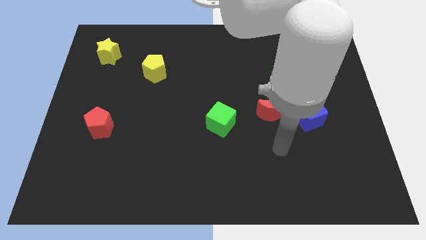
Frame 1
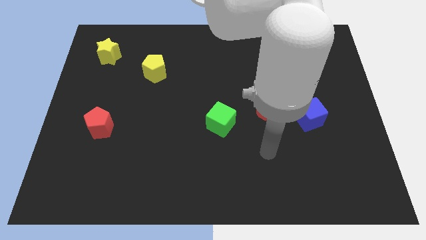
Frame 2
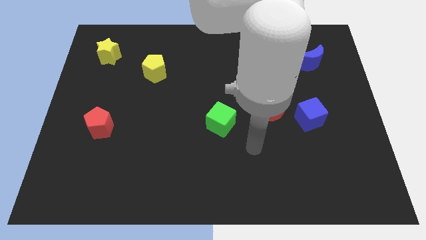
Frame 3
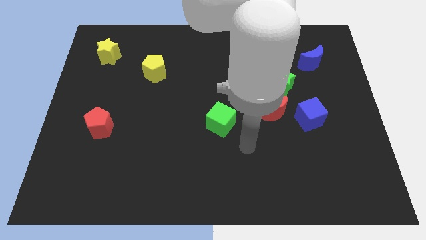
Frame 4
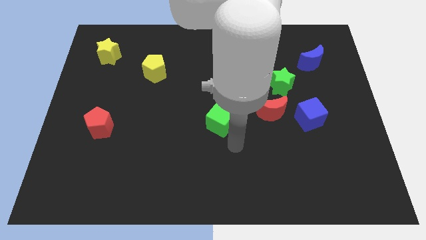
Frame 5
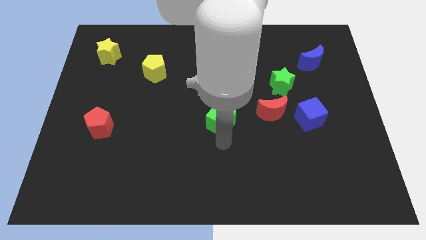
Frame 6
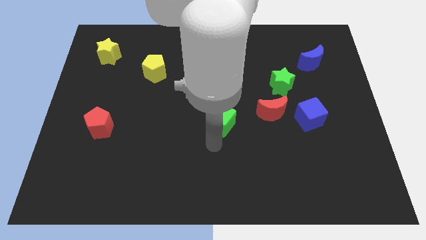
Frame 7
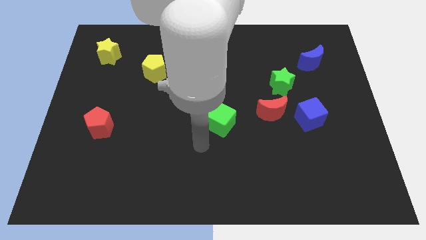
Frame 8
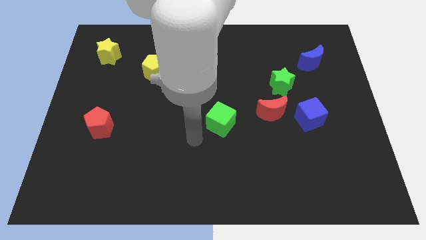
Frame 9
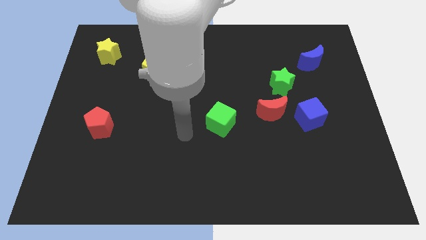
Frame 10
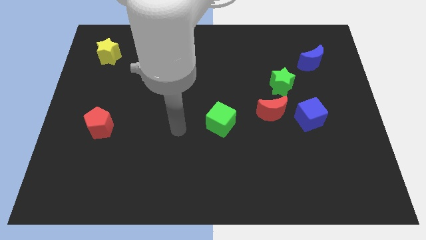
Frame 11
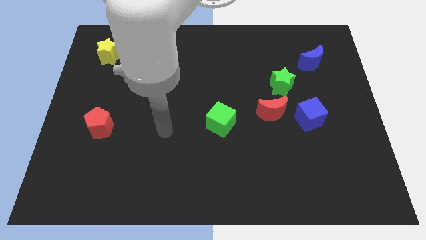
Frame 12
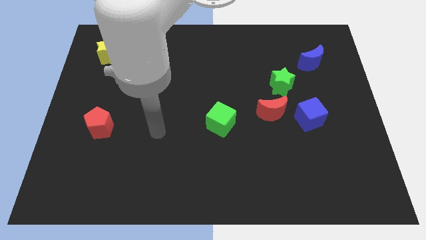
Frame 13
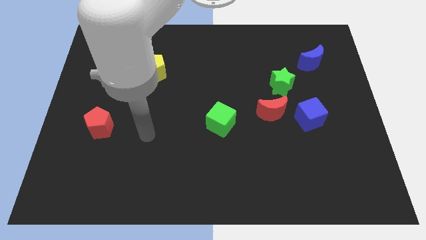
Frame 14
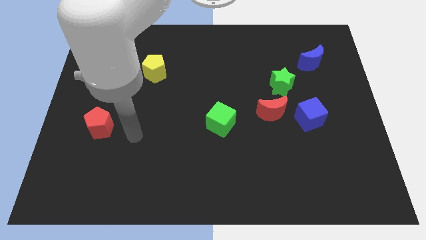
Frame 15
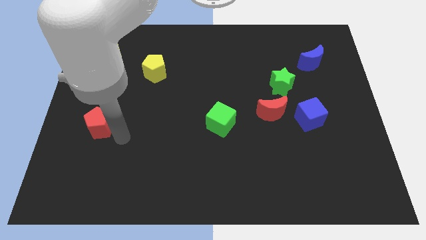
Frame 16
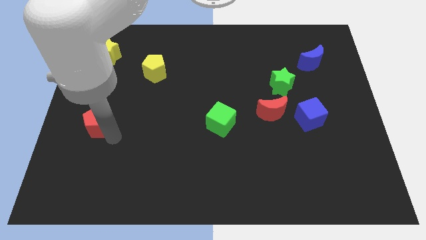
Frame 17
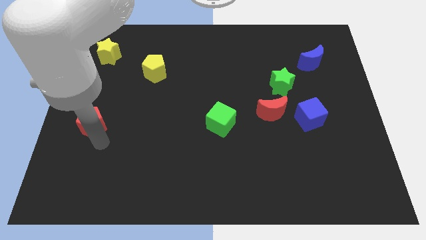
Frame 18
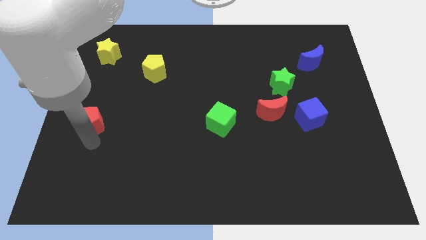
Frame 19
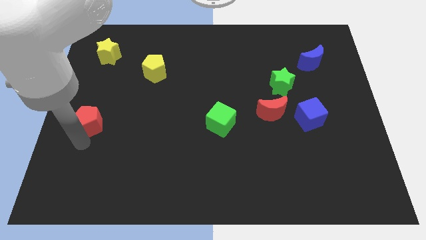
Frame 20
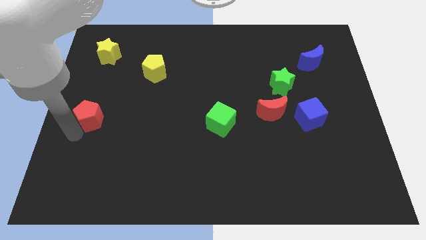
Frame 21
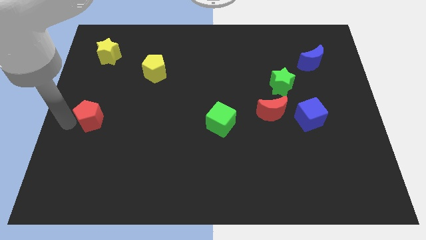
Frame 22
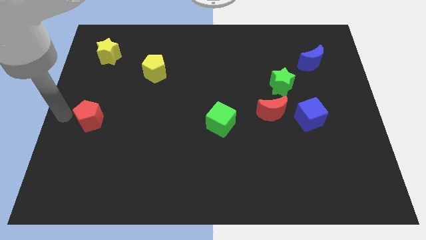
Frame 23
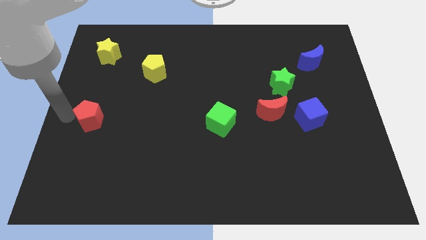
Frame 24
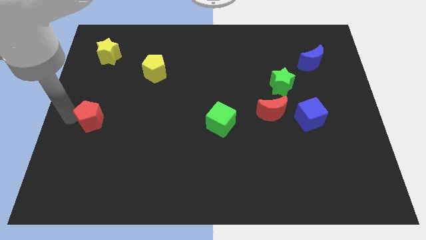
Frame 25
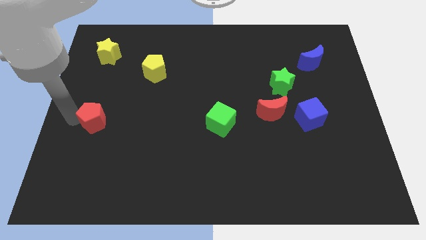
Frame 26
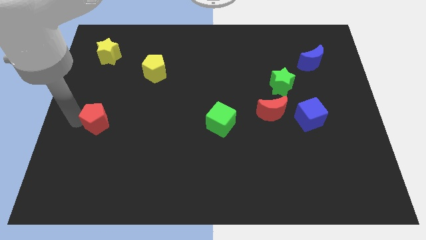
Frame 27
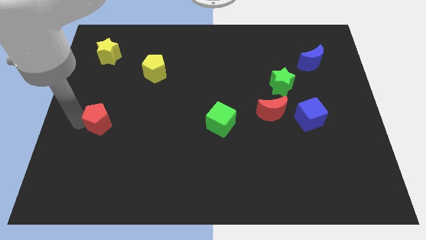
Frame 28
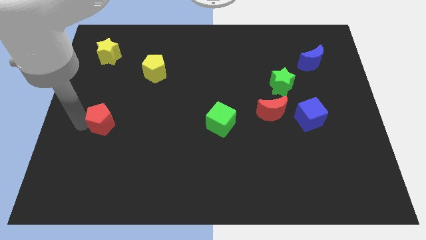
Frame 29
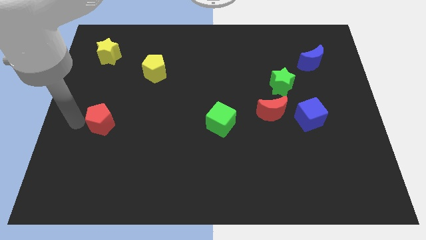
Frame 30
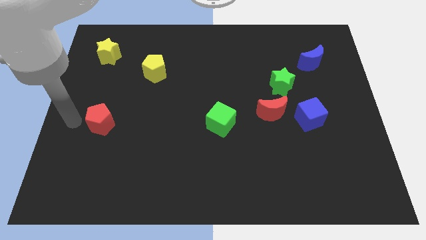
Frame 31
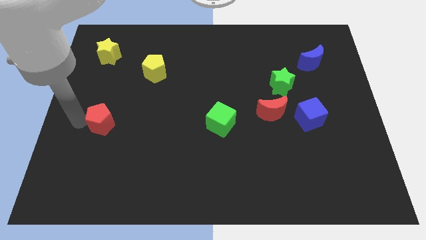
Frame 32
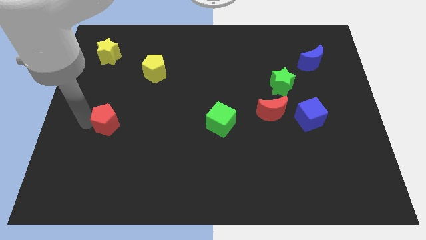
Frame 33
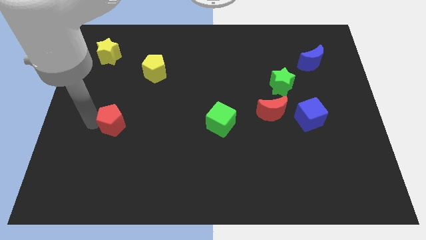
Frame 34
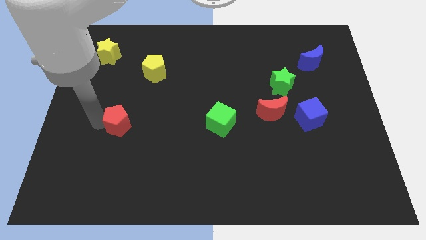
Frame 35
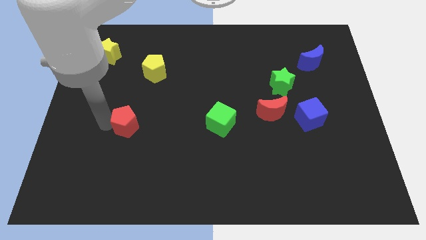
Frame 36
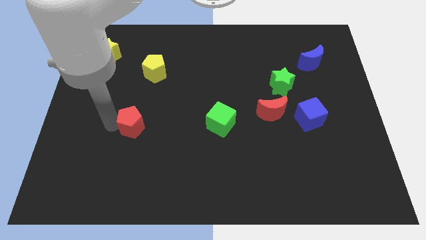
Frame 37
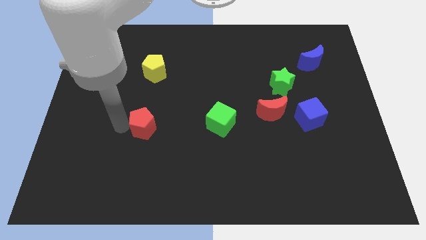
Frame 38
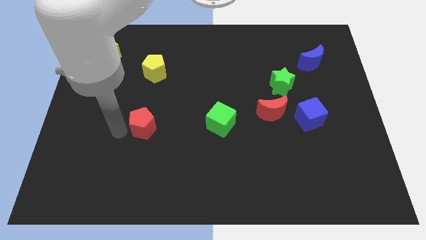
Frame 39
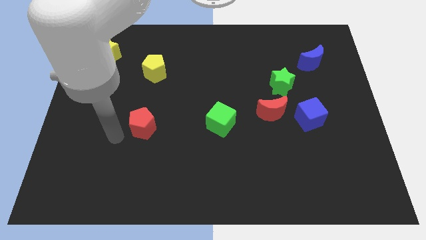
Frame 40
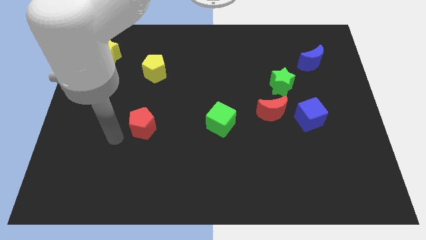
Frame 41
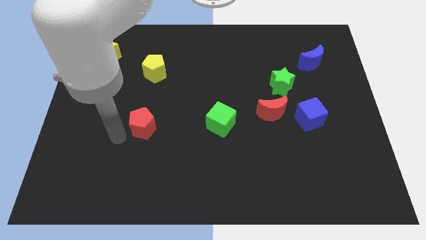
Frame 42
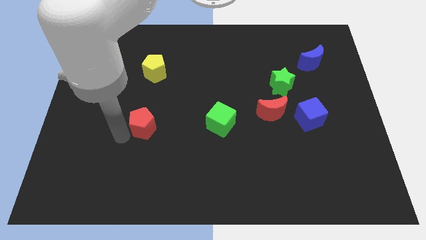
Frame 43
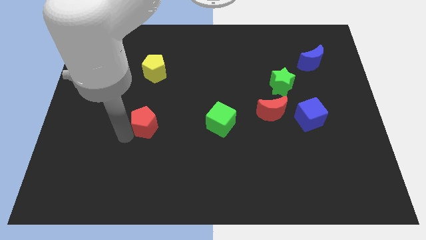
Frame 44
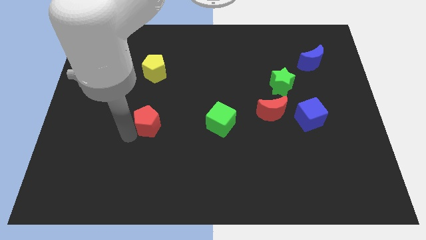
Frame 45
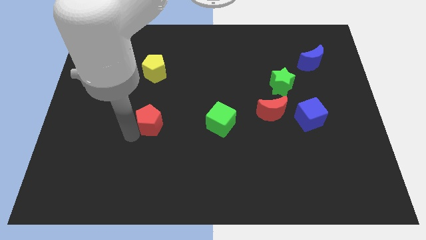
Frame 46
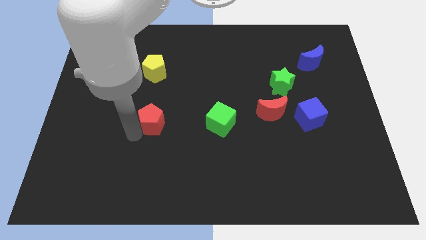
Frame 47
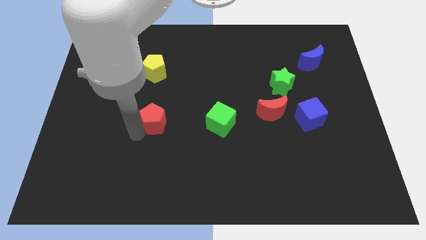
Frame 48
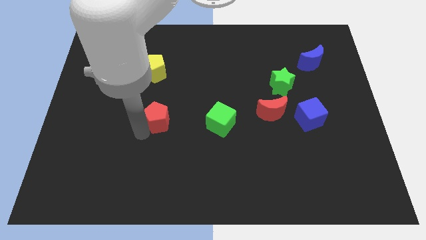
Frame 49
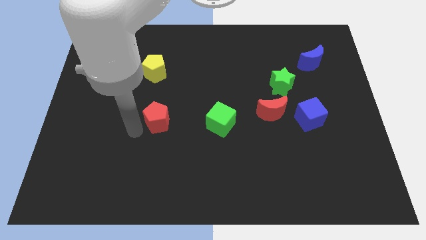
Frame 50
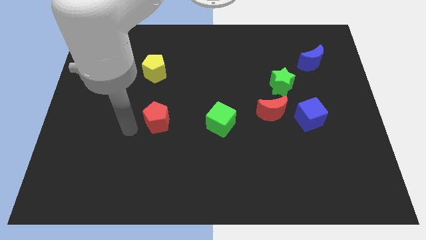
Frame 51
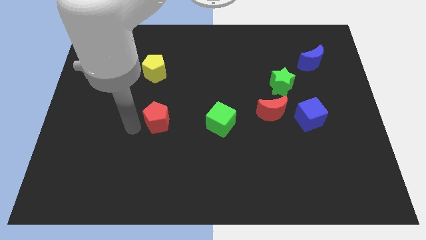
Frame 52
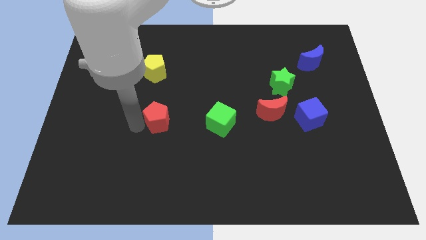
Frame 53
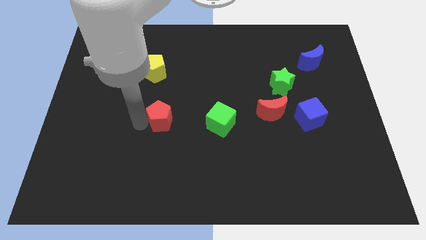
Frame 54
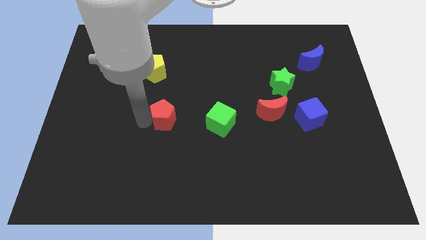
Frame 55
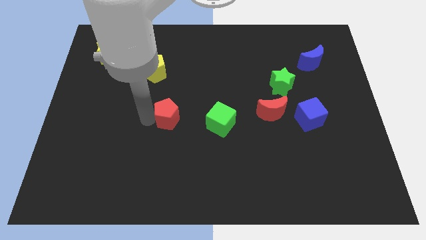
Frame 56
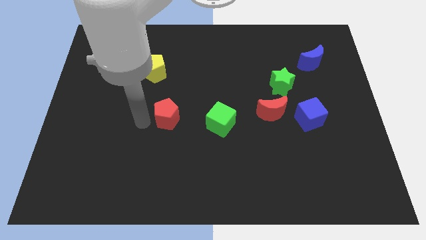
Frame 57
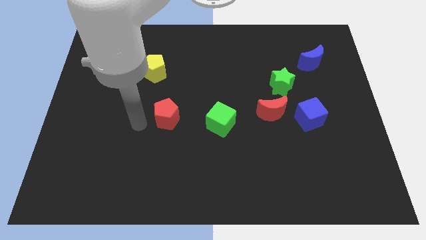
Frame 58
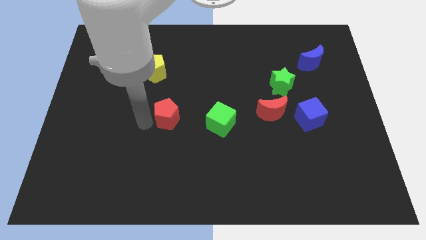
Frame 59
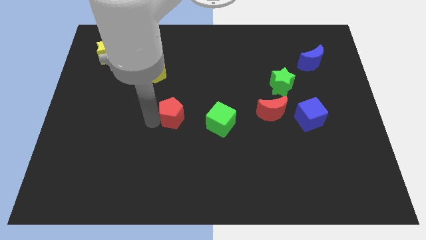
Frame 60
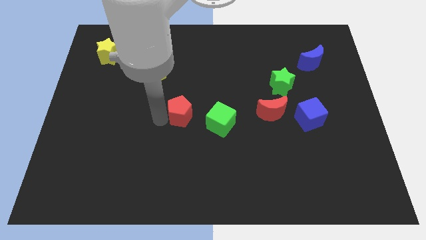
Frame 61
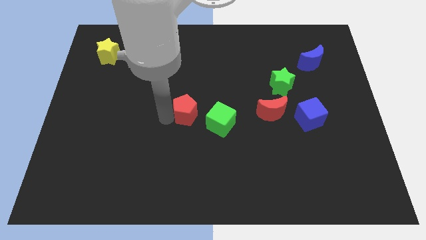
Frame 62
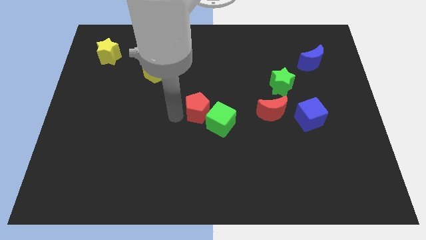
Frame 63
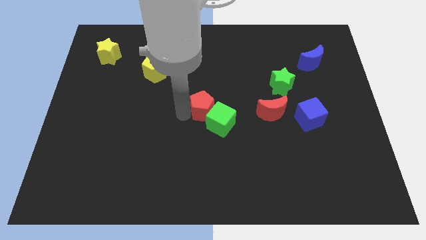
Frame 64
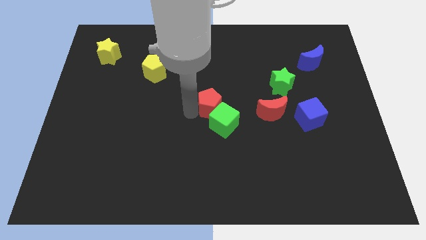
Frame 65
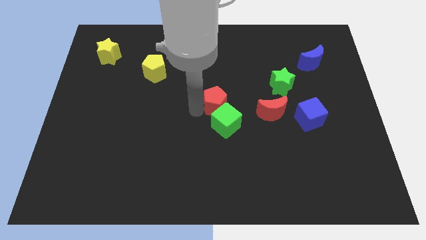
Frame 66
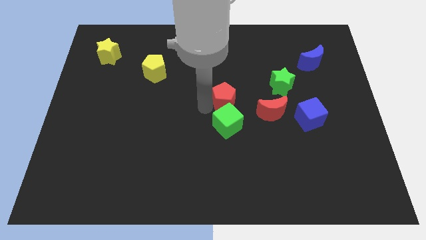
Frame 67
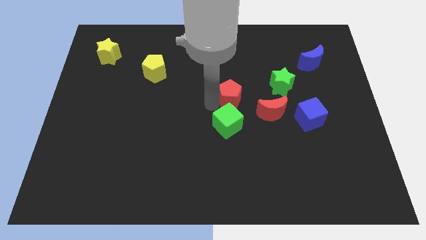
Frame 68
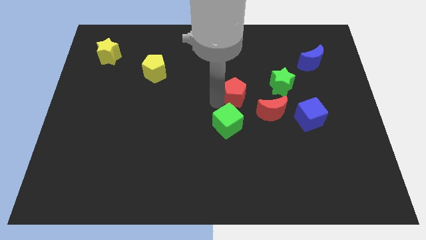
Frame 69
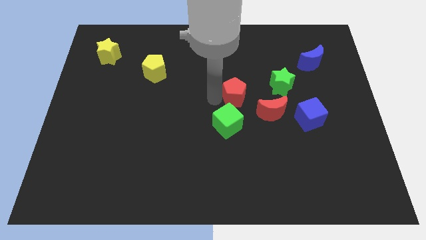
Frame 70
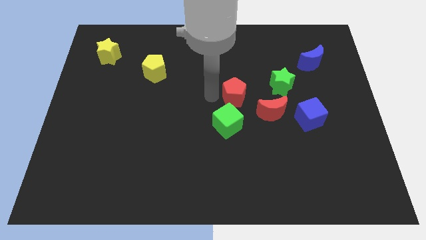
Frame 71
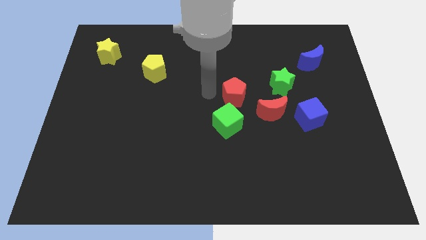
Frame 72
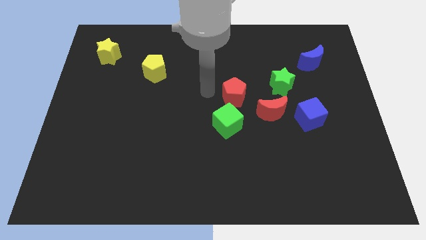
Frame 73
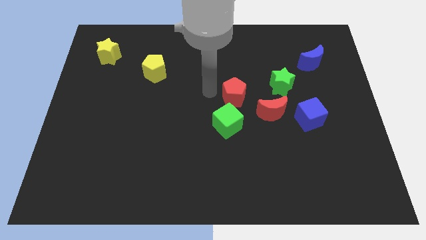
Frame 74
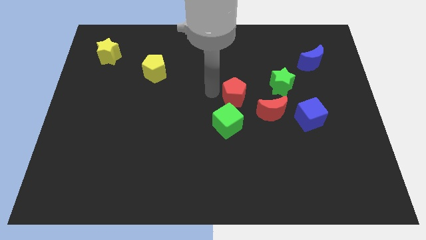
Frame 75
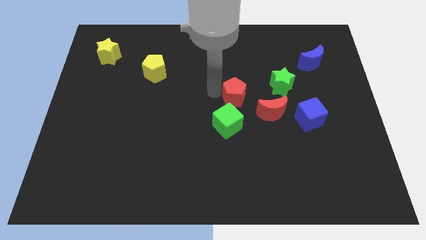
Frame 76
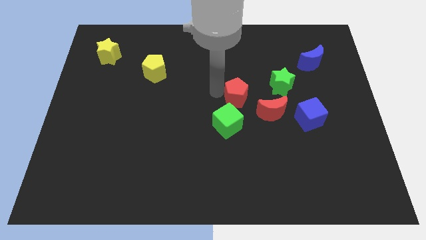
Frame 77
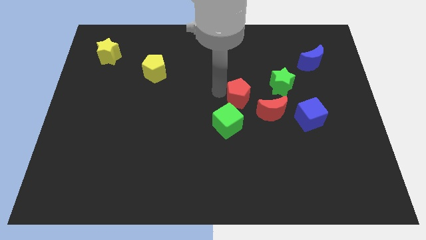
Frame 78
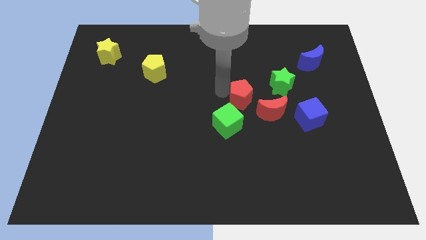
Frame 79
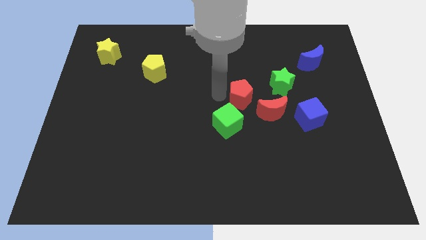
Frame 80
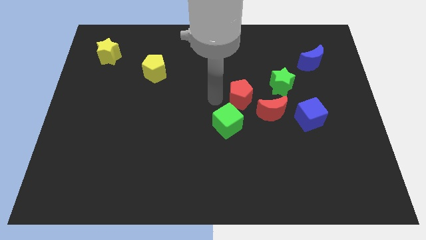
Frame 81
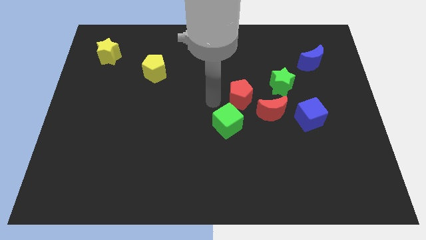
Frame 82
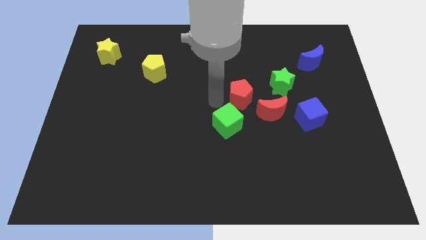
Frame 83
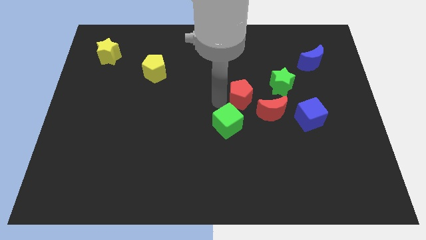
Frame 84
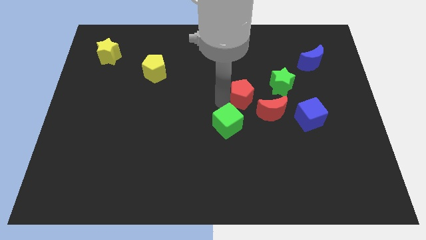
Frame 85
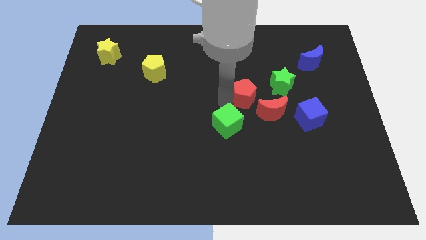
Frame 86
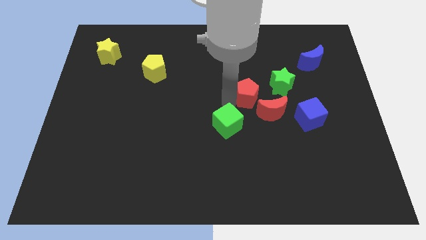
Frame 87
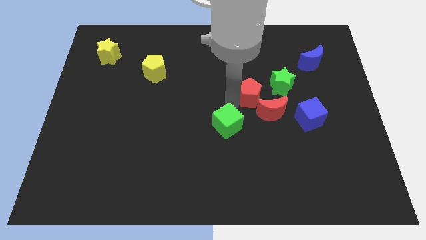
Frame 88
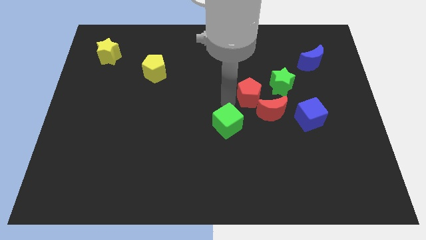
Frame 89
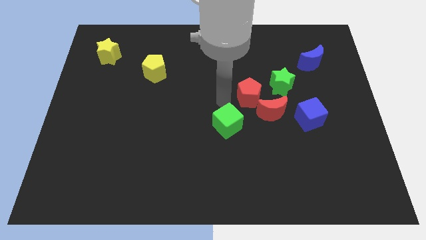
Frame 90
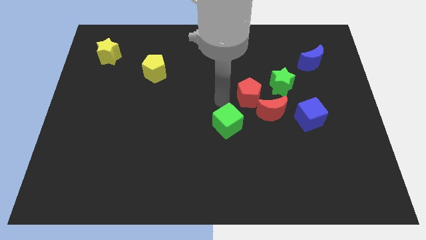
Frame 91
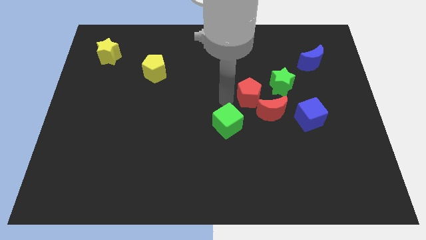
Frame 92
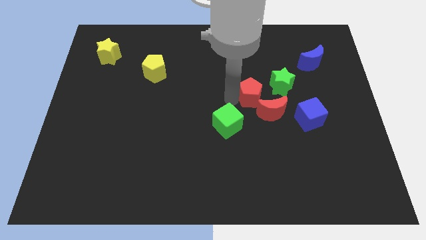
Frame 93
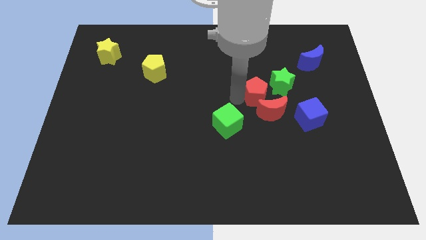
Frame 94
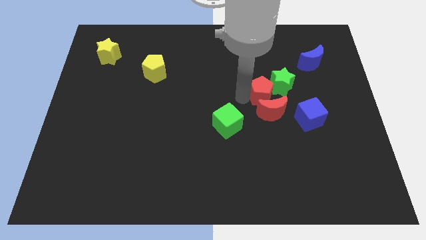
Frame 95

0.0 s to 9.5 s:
move the red pentagon close to the green star
